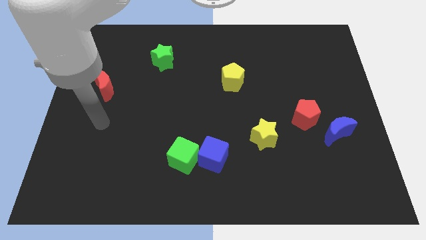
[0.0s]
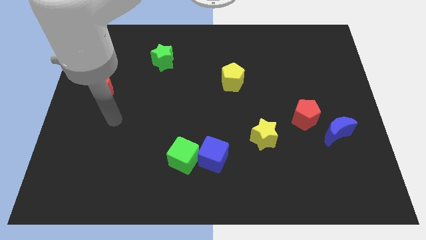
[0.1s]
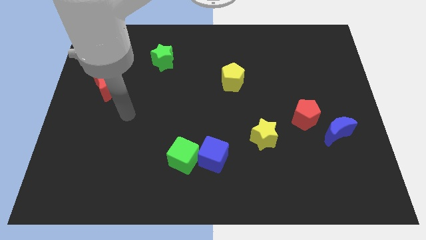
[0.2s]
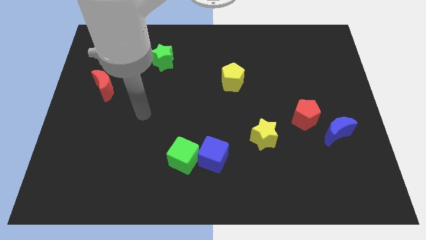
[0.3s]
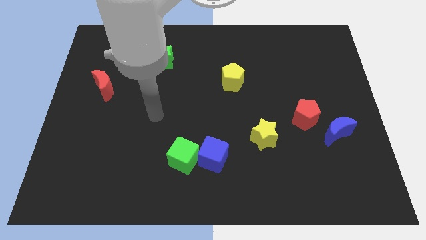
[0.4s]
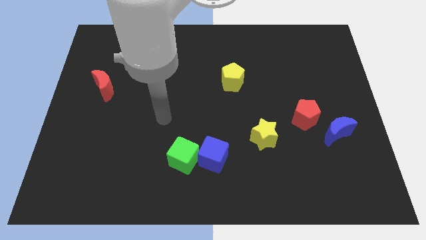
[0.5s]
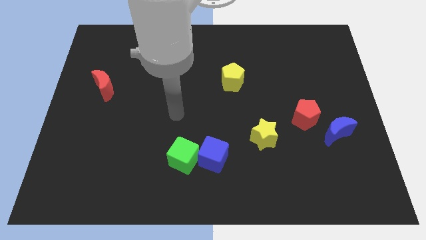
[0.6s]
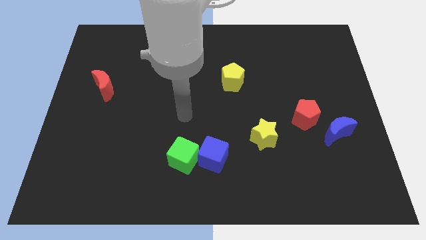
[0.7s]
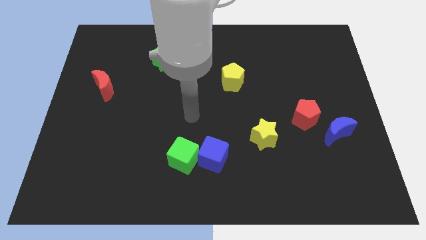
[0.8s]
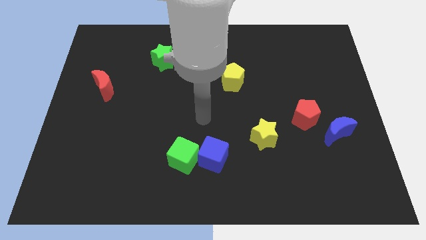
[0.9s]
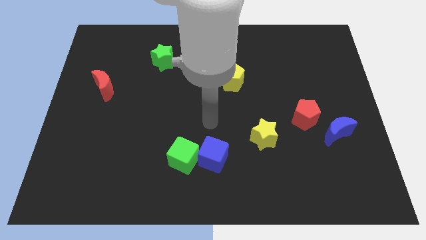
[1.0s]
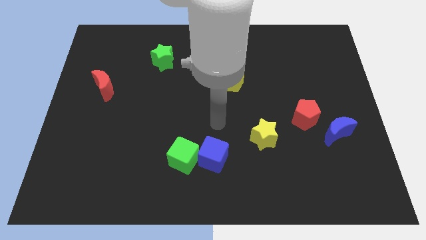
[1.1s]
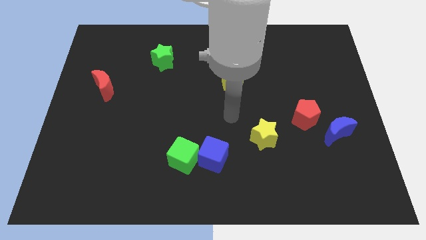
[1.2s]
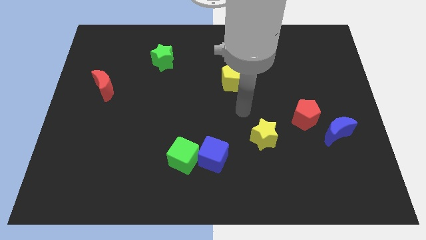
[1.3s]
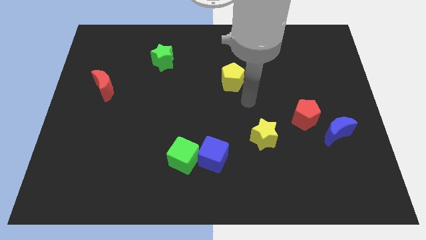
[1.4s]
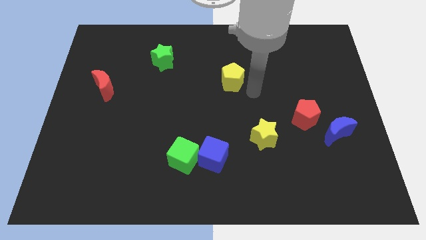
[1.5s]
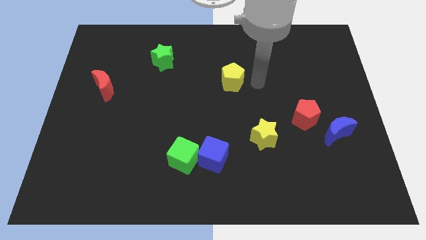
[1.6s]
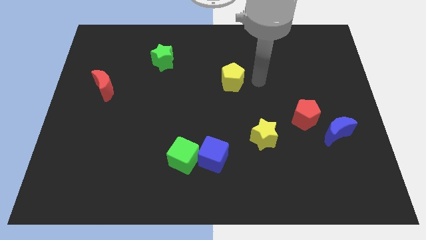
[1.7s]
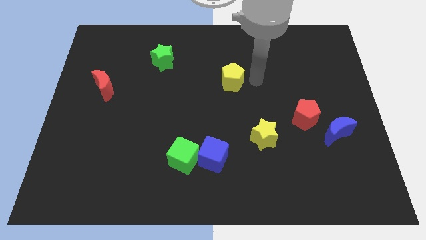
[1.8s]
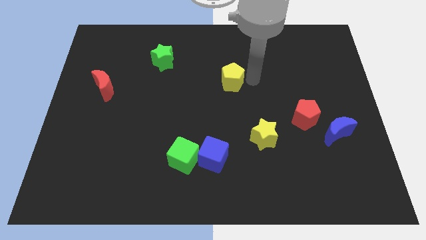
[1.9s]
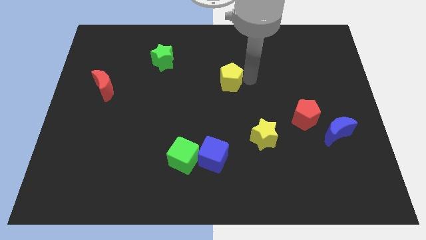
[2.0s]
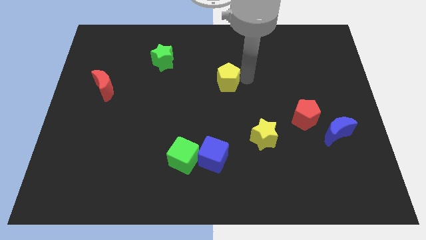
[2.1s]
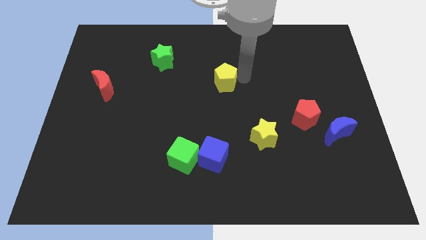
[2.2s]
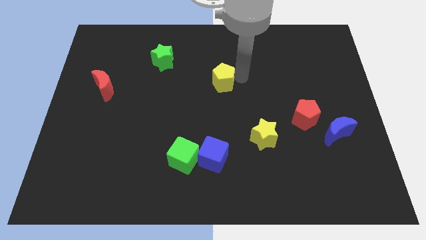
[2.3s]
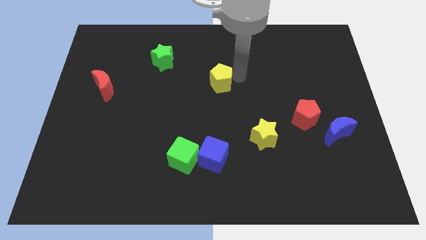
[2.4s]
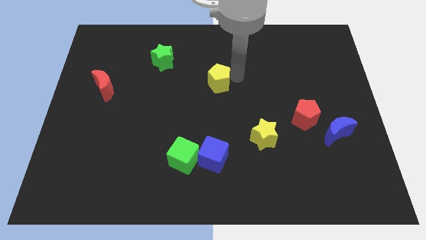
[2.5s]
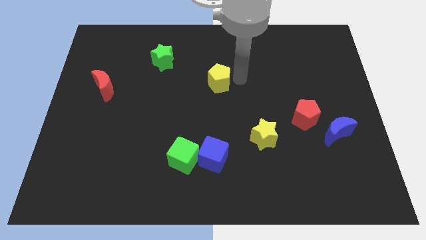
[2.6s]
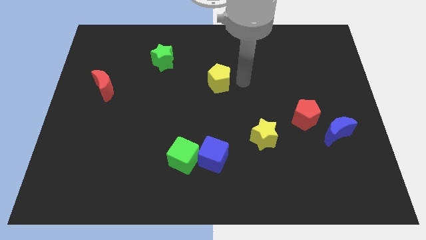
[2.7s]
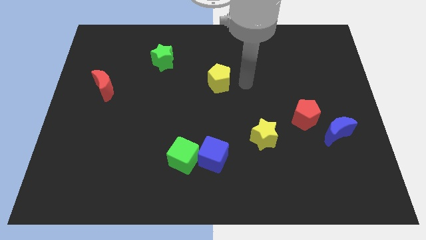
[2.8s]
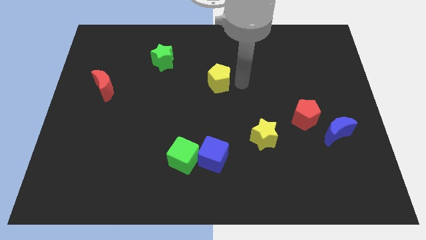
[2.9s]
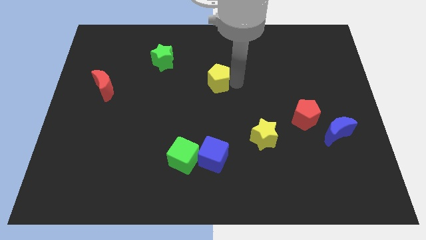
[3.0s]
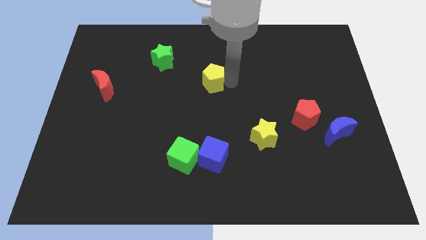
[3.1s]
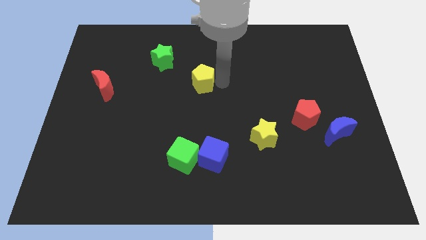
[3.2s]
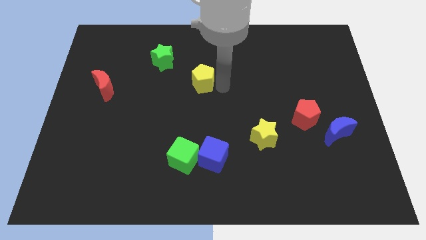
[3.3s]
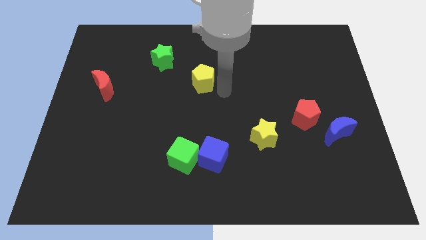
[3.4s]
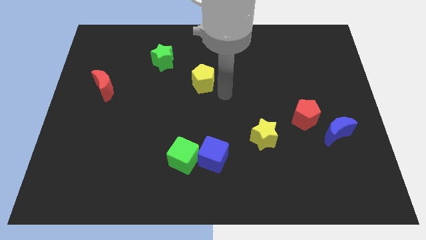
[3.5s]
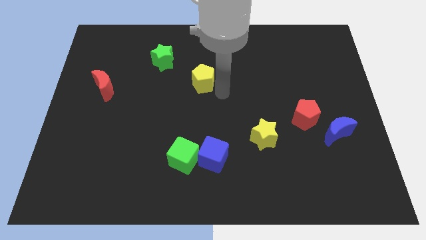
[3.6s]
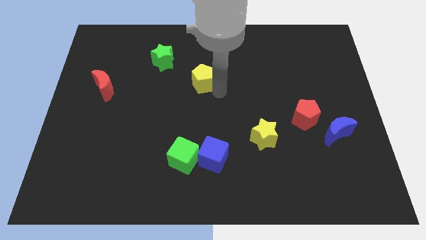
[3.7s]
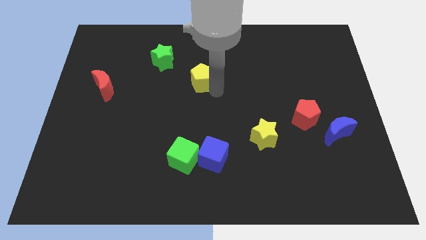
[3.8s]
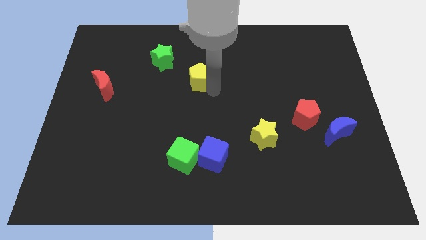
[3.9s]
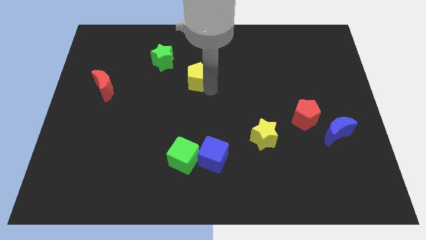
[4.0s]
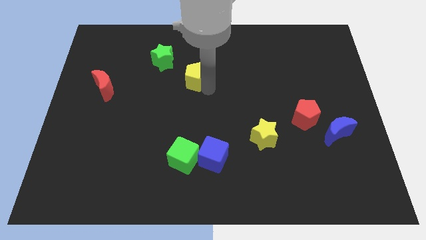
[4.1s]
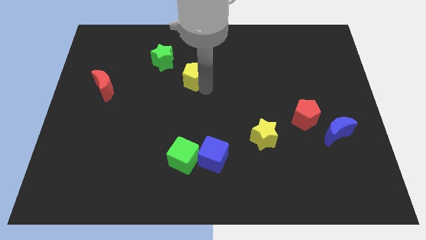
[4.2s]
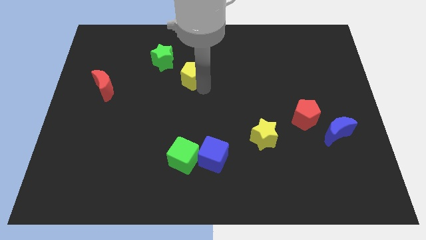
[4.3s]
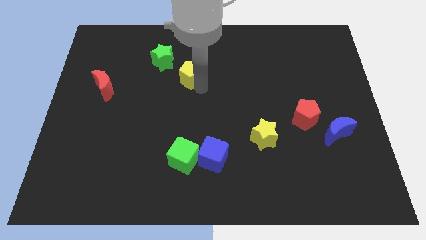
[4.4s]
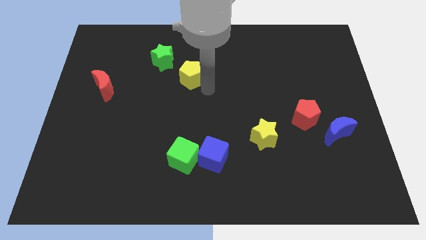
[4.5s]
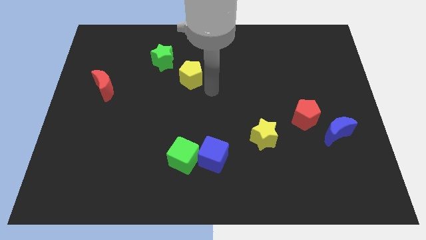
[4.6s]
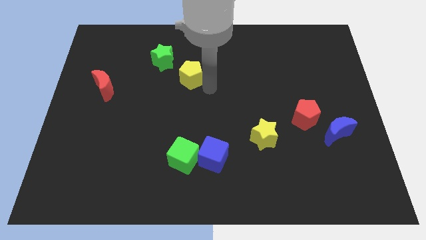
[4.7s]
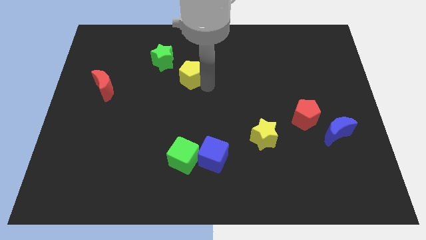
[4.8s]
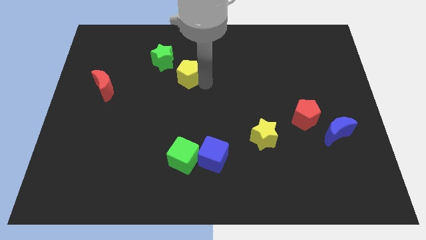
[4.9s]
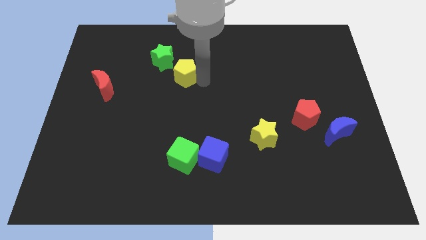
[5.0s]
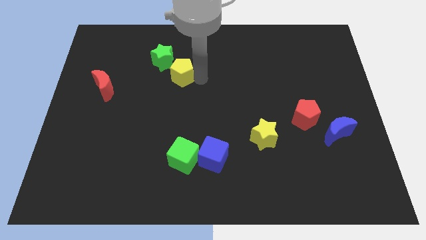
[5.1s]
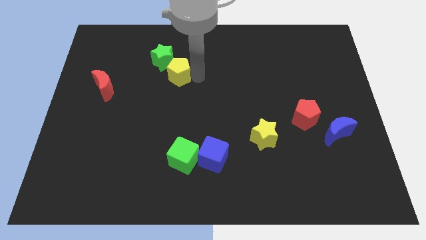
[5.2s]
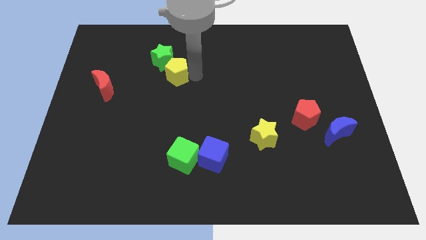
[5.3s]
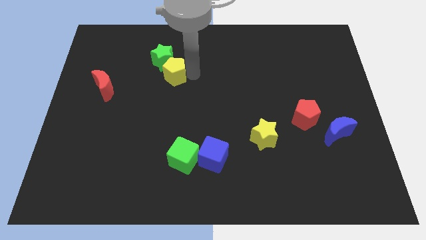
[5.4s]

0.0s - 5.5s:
move the yellow pentagon close to the green star

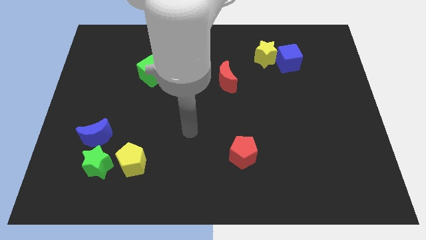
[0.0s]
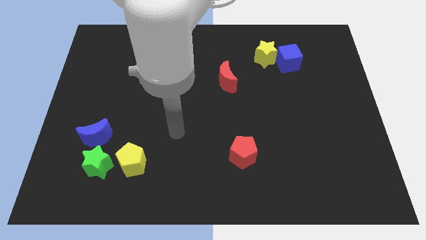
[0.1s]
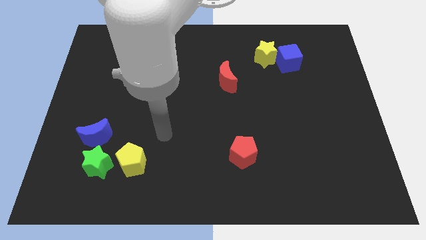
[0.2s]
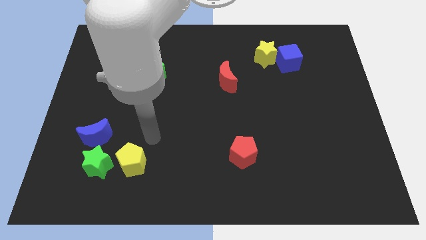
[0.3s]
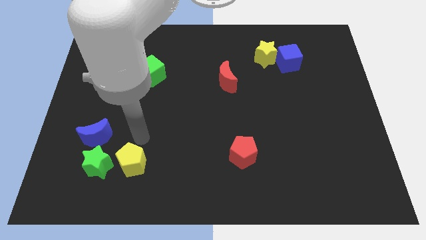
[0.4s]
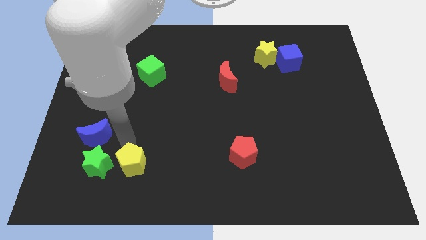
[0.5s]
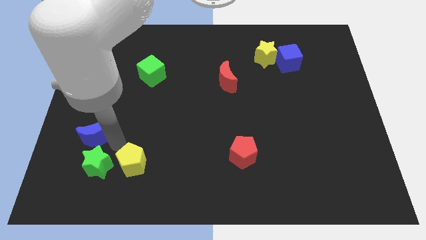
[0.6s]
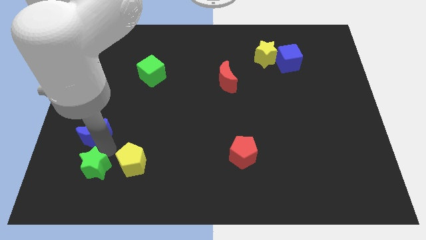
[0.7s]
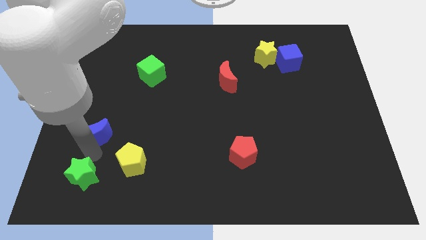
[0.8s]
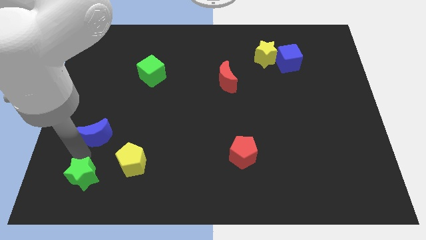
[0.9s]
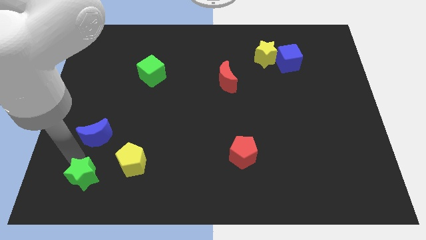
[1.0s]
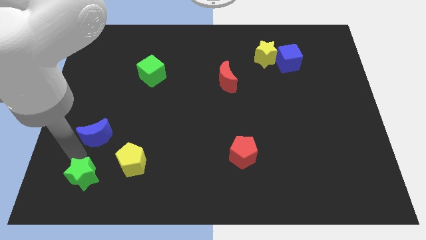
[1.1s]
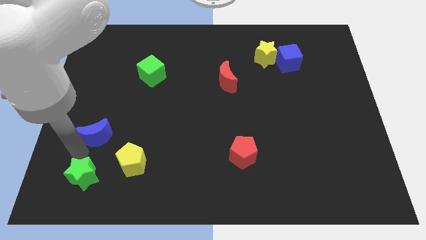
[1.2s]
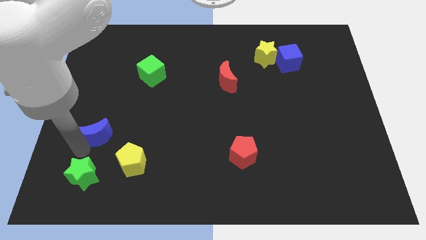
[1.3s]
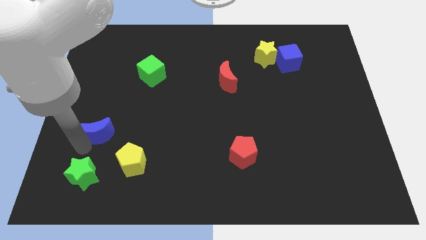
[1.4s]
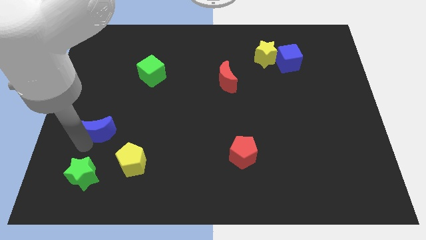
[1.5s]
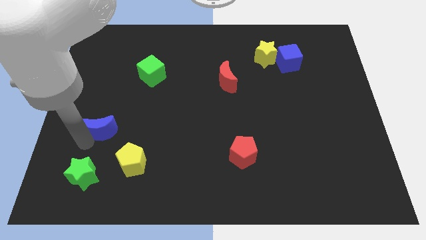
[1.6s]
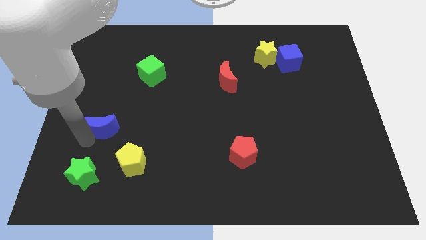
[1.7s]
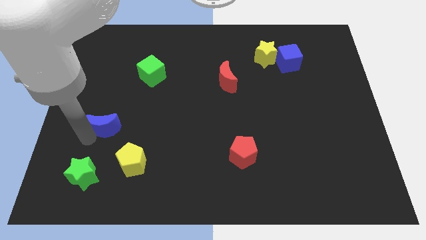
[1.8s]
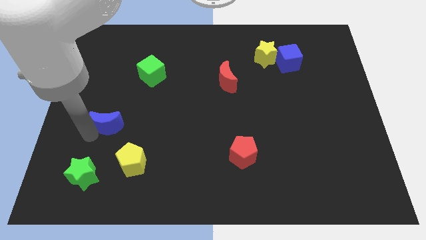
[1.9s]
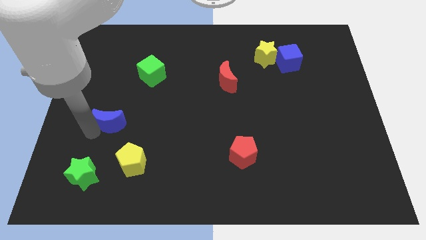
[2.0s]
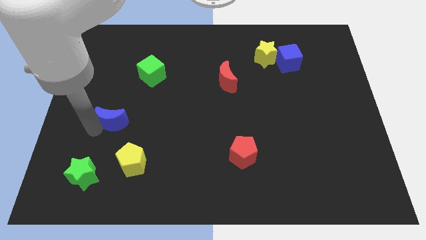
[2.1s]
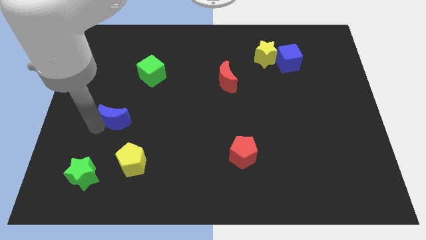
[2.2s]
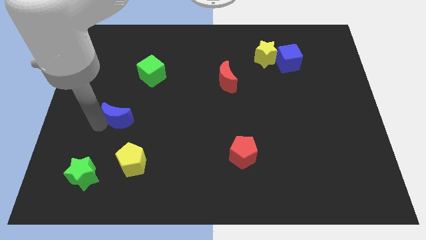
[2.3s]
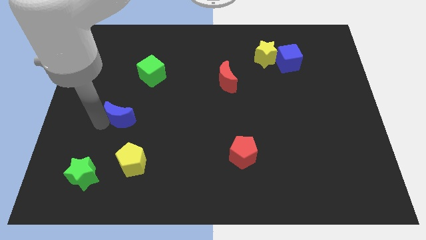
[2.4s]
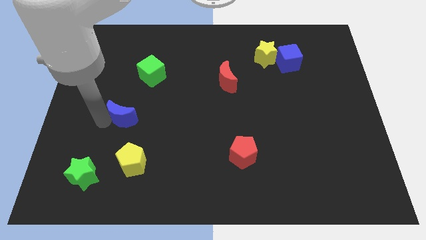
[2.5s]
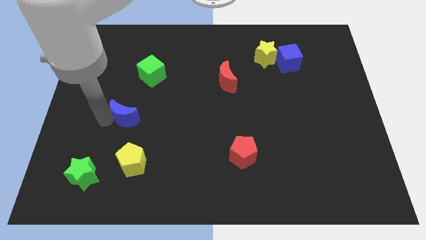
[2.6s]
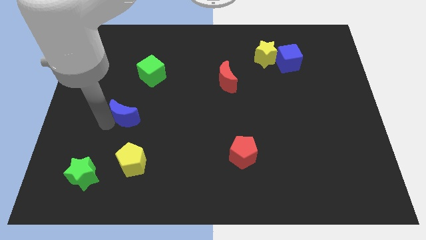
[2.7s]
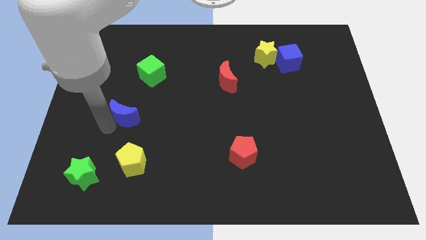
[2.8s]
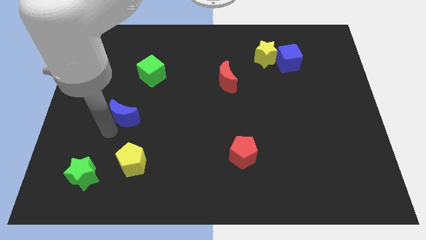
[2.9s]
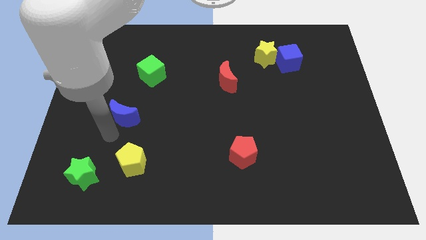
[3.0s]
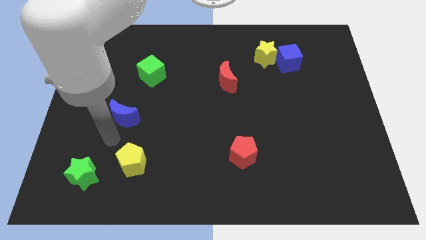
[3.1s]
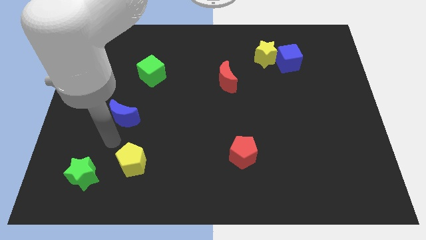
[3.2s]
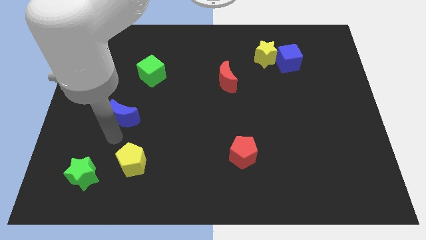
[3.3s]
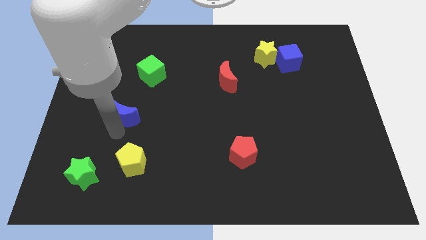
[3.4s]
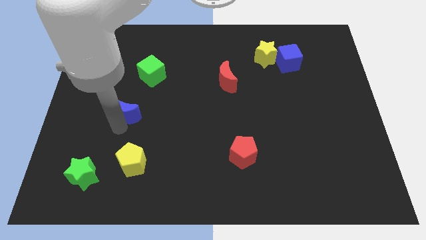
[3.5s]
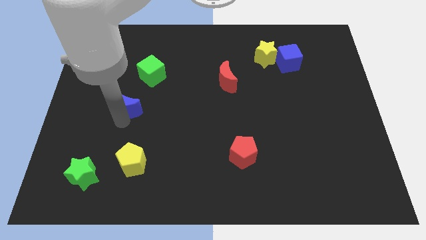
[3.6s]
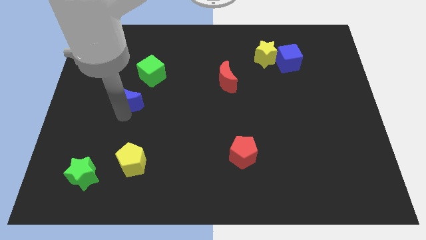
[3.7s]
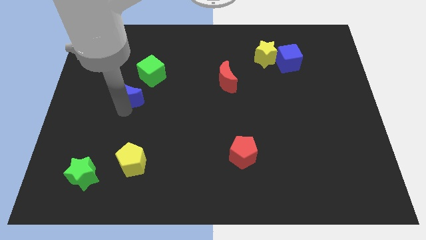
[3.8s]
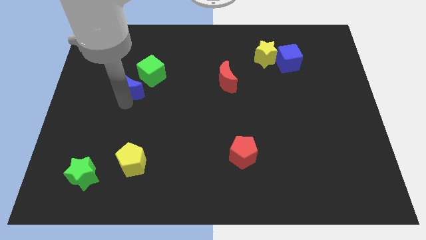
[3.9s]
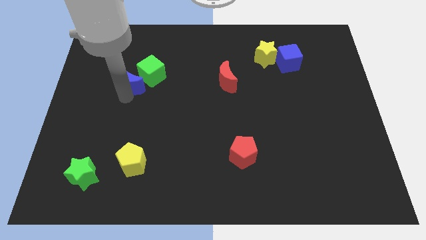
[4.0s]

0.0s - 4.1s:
move the blue moon to the green cube
